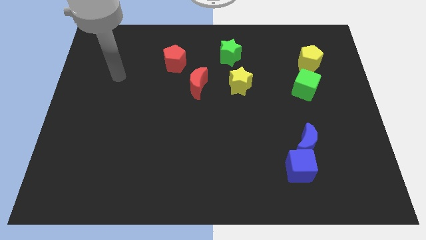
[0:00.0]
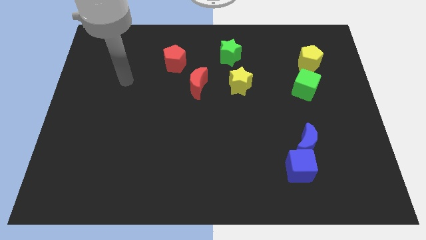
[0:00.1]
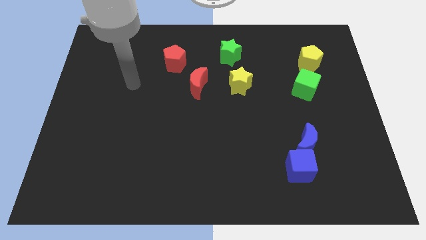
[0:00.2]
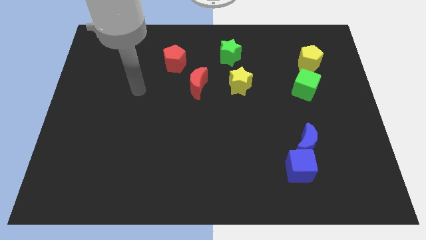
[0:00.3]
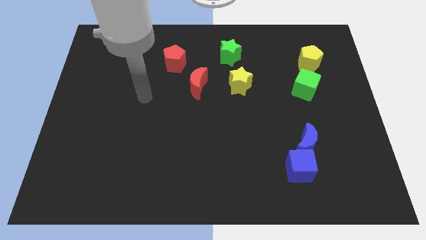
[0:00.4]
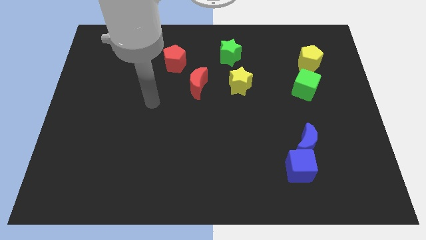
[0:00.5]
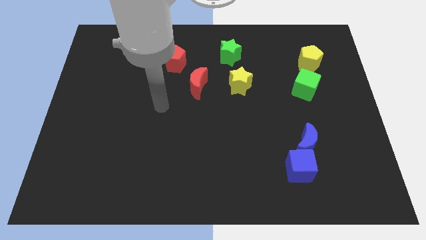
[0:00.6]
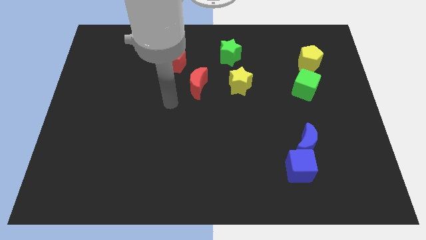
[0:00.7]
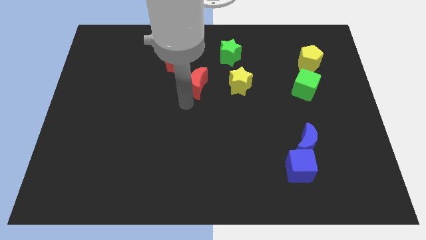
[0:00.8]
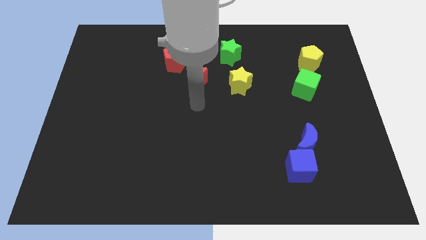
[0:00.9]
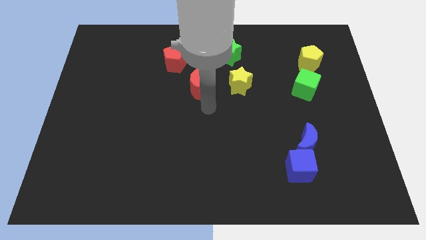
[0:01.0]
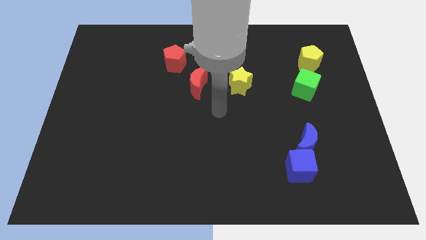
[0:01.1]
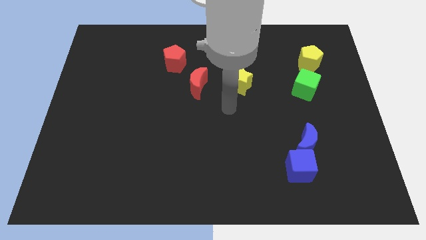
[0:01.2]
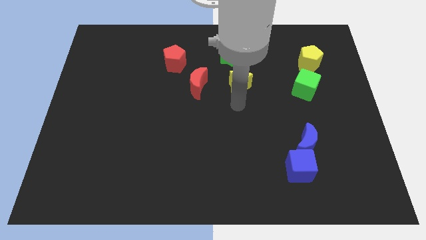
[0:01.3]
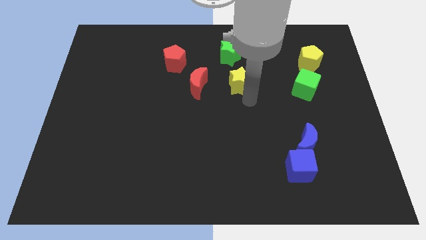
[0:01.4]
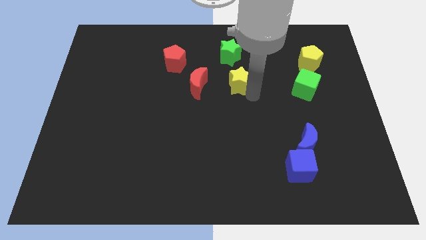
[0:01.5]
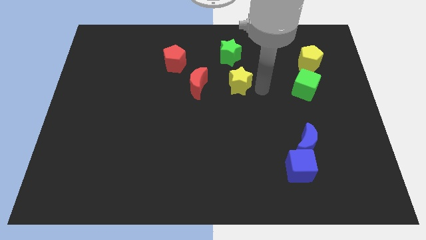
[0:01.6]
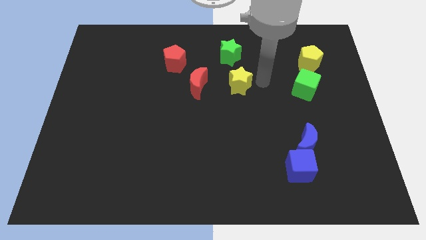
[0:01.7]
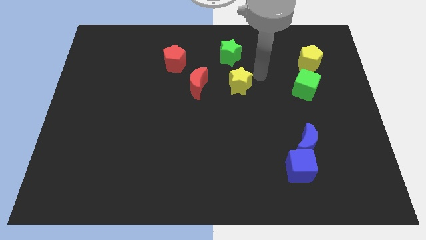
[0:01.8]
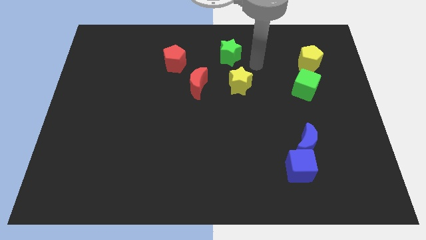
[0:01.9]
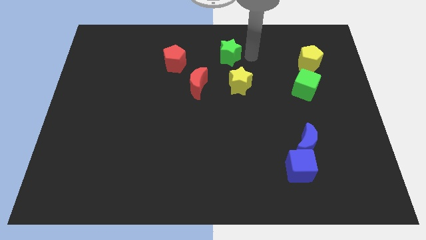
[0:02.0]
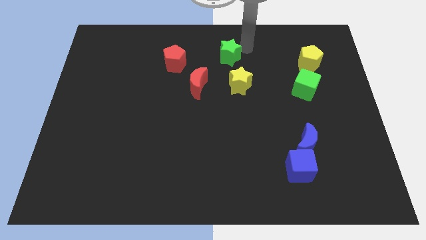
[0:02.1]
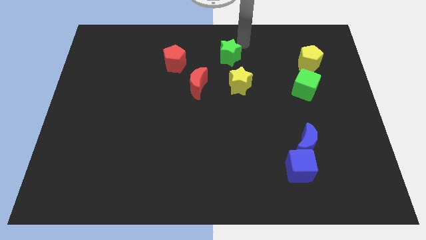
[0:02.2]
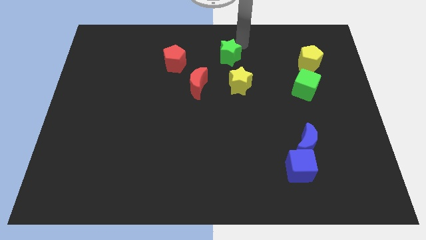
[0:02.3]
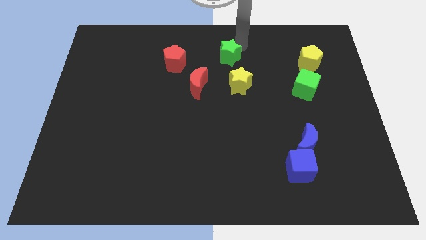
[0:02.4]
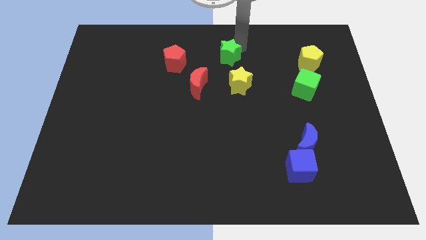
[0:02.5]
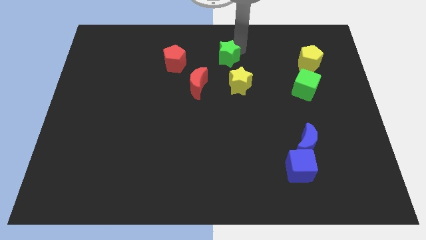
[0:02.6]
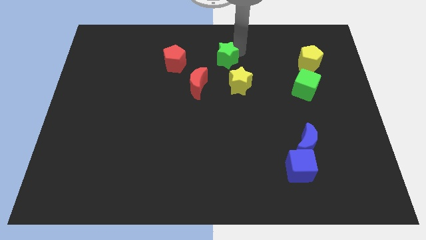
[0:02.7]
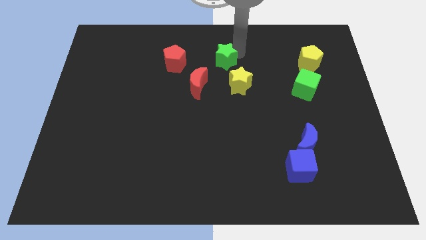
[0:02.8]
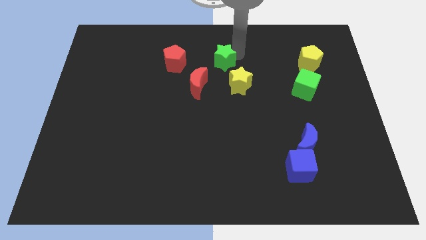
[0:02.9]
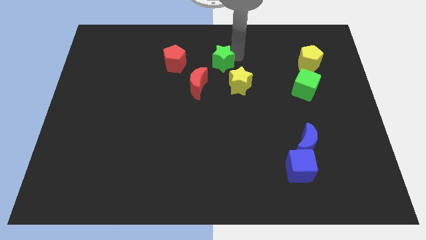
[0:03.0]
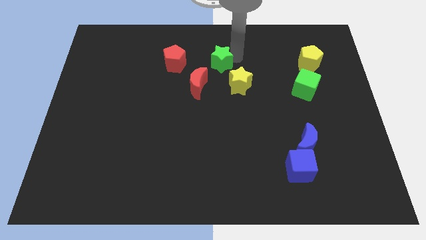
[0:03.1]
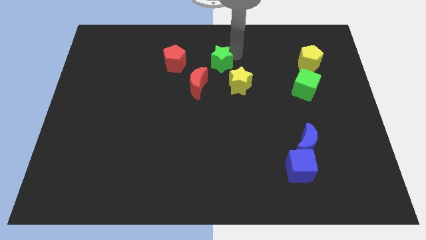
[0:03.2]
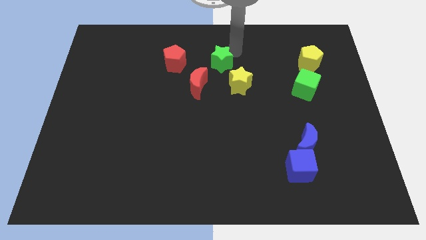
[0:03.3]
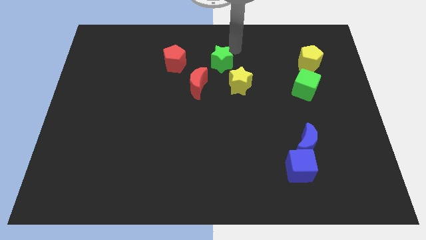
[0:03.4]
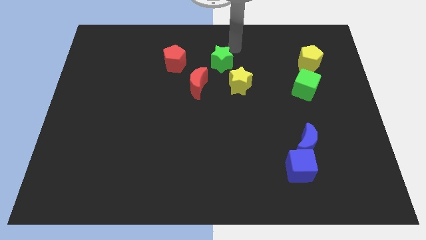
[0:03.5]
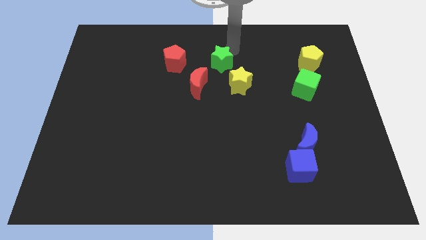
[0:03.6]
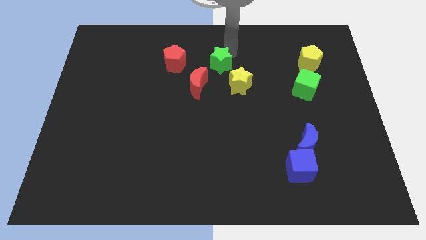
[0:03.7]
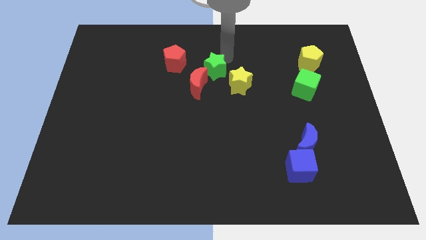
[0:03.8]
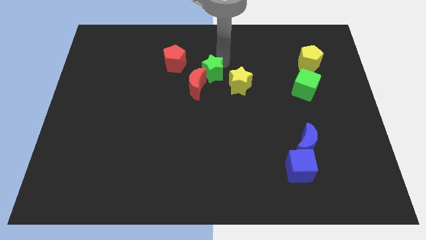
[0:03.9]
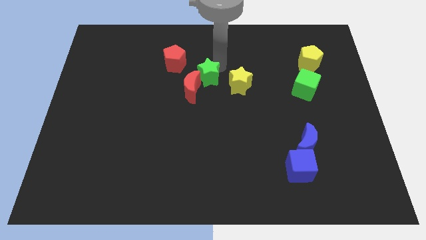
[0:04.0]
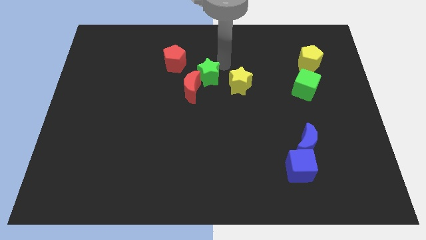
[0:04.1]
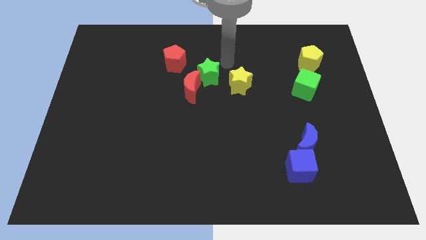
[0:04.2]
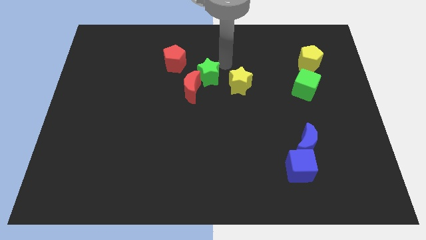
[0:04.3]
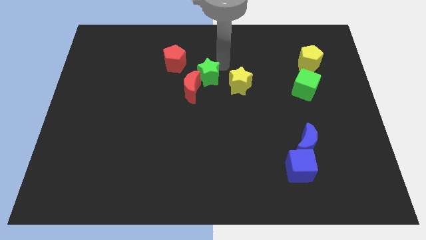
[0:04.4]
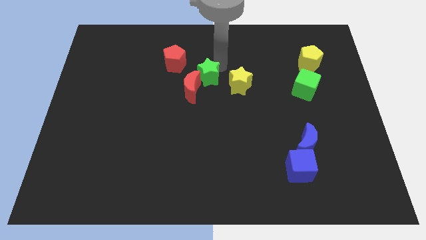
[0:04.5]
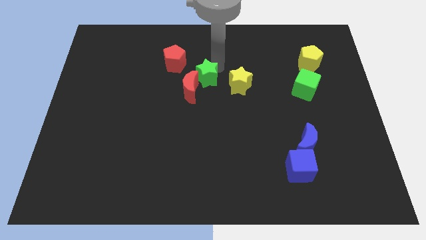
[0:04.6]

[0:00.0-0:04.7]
push the green star to the red moon

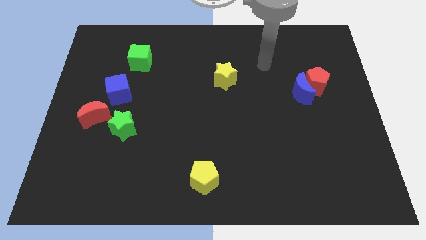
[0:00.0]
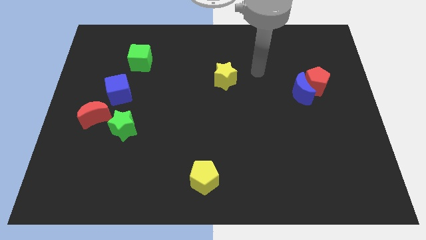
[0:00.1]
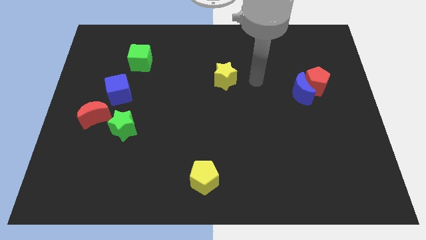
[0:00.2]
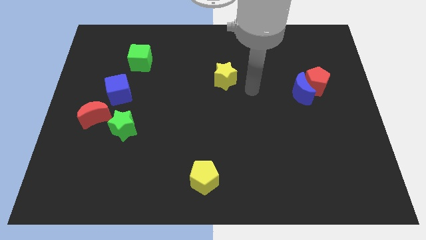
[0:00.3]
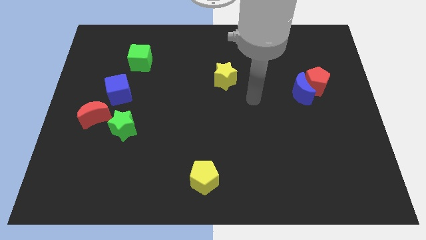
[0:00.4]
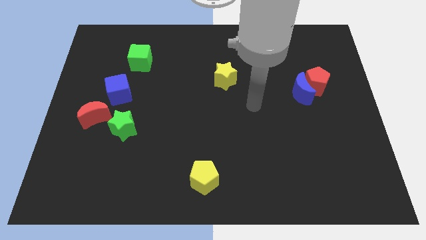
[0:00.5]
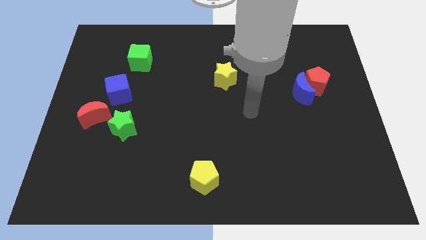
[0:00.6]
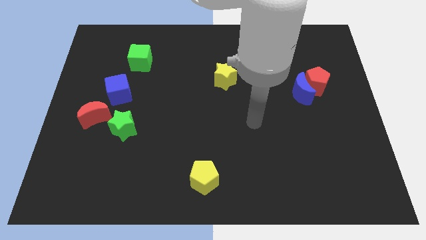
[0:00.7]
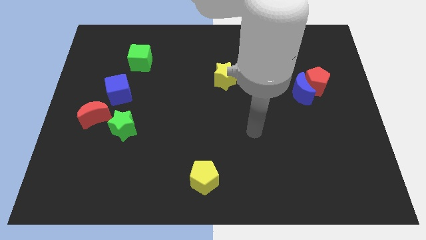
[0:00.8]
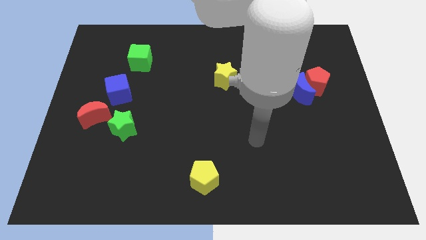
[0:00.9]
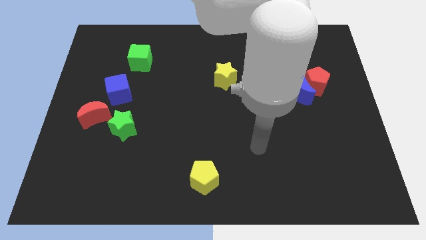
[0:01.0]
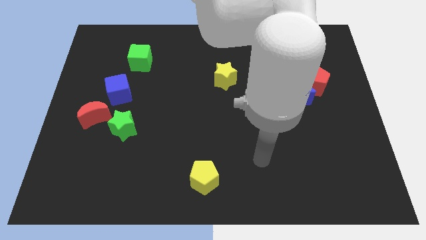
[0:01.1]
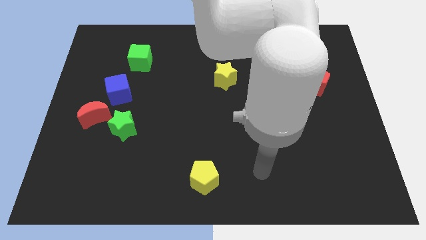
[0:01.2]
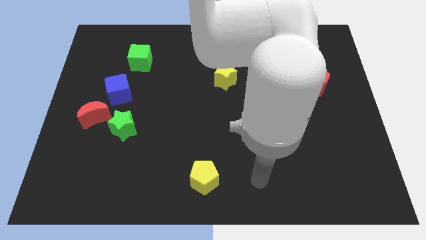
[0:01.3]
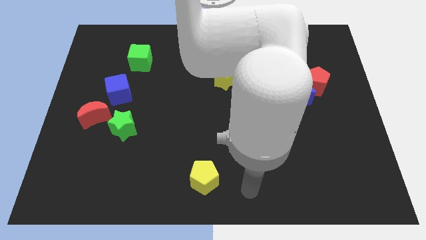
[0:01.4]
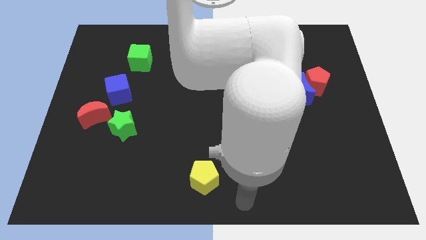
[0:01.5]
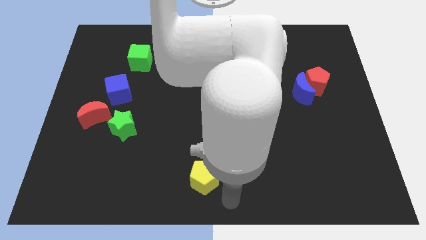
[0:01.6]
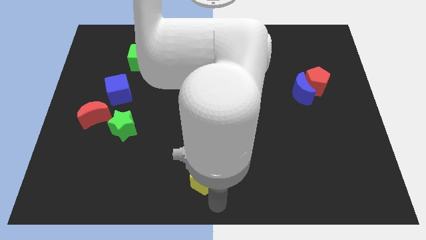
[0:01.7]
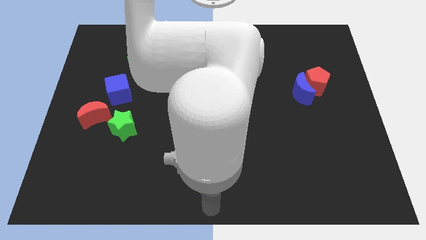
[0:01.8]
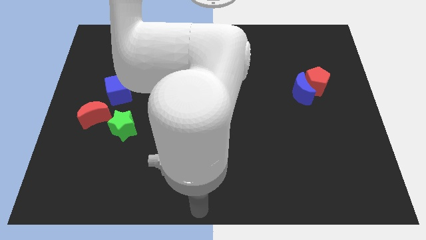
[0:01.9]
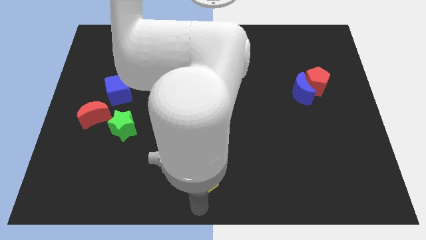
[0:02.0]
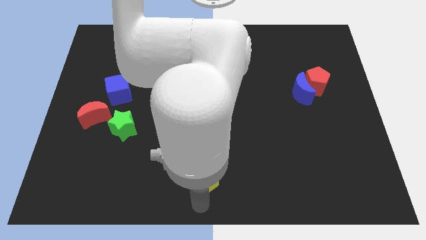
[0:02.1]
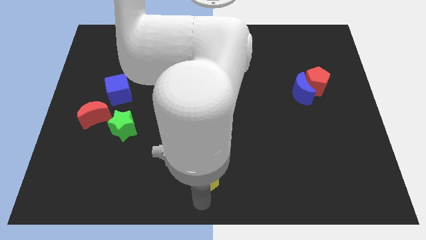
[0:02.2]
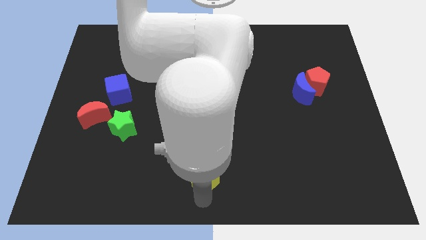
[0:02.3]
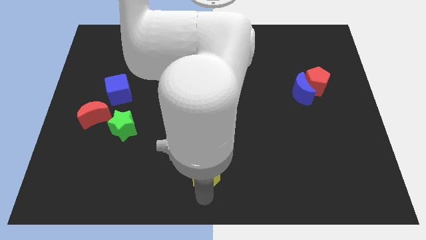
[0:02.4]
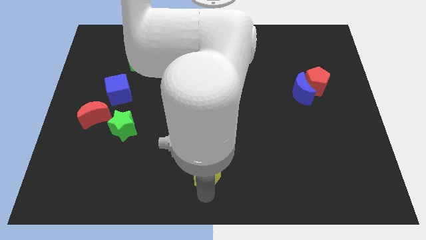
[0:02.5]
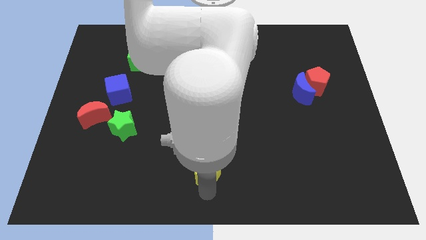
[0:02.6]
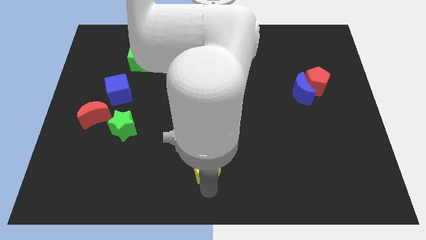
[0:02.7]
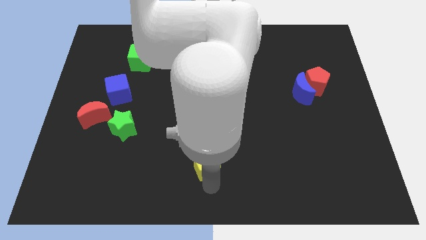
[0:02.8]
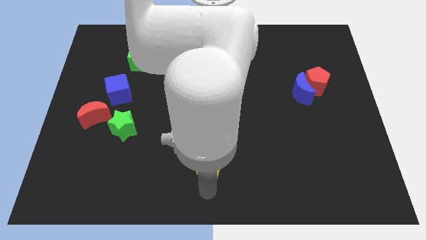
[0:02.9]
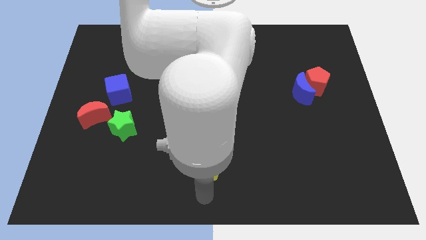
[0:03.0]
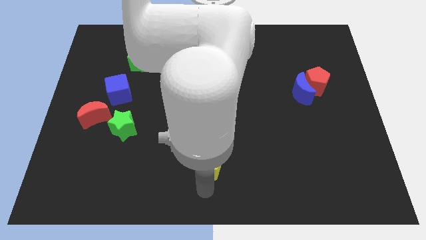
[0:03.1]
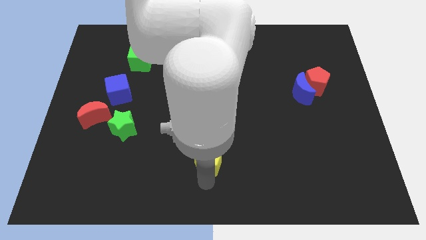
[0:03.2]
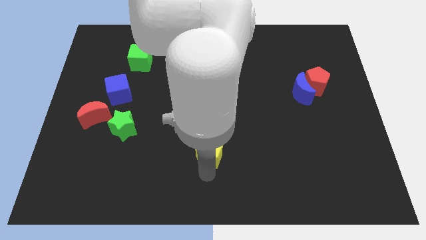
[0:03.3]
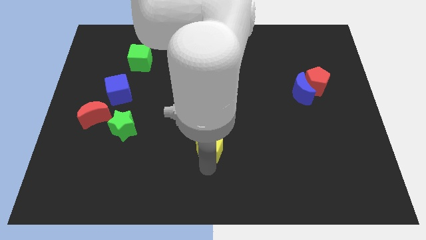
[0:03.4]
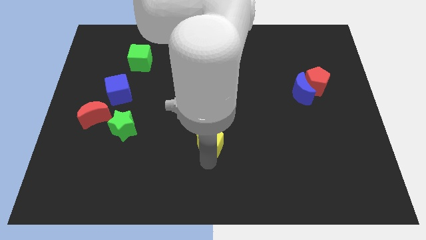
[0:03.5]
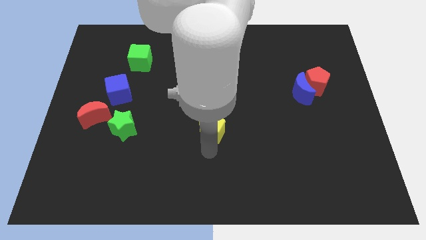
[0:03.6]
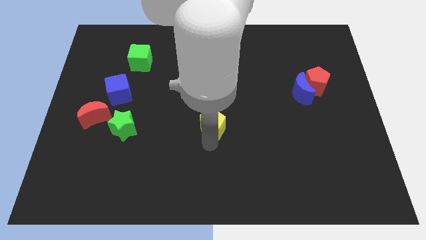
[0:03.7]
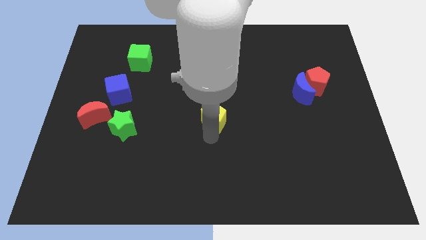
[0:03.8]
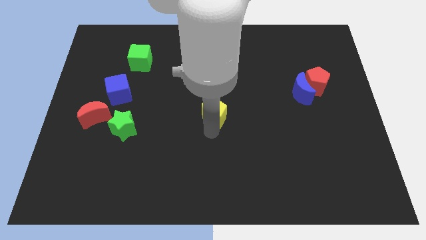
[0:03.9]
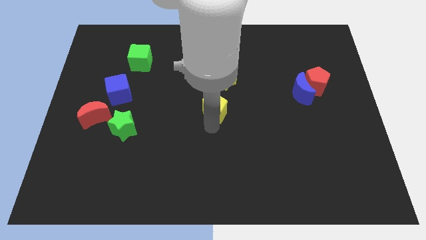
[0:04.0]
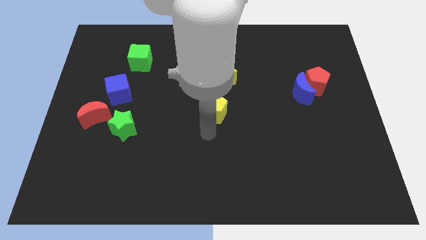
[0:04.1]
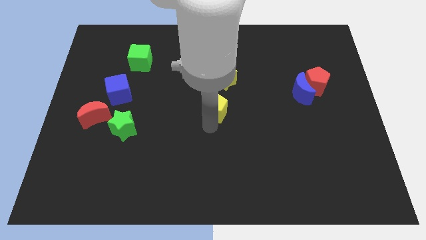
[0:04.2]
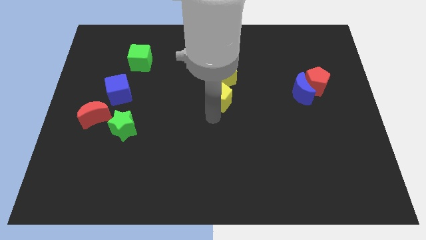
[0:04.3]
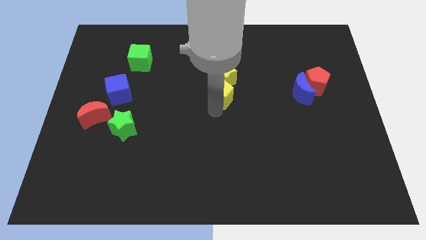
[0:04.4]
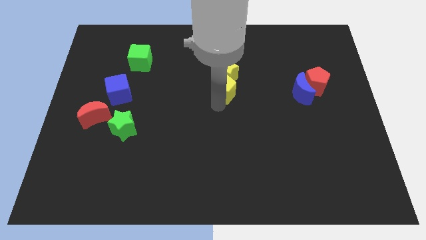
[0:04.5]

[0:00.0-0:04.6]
slide the yellow pentagon towards the yellow star
